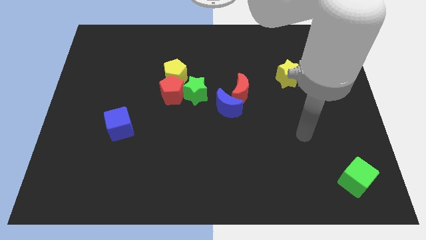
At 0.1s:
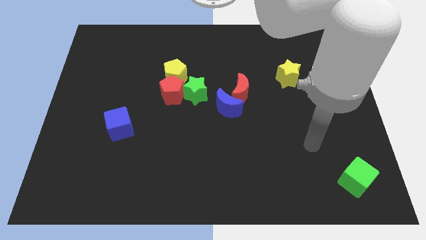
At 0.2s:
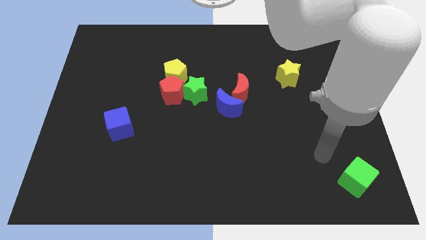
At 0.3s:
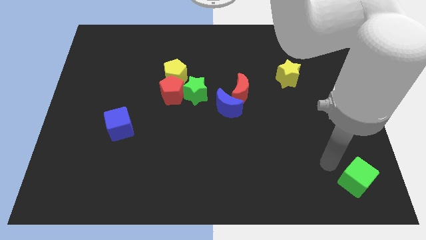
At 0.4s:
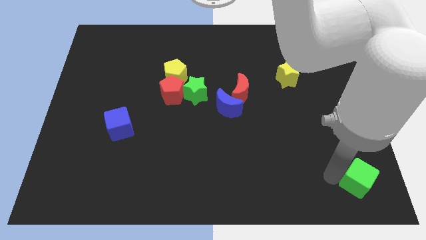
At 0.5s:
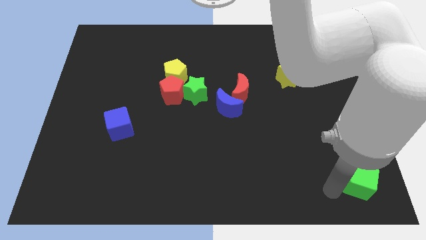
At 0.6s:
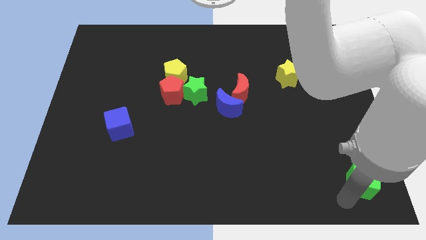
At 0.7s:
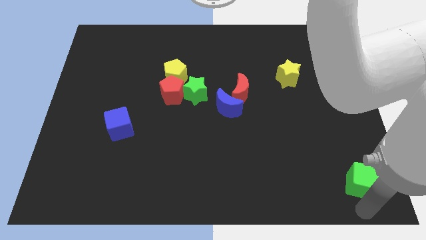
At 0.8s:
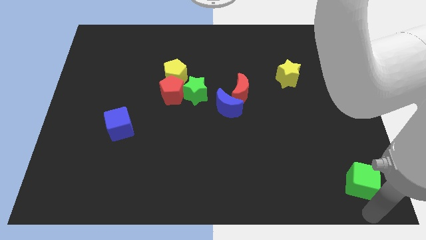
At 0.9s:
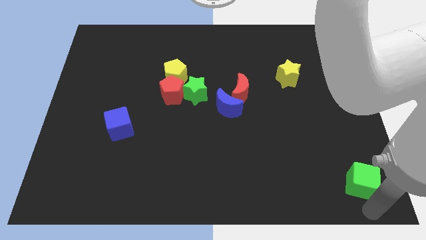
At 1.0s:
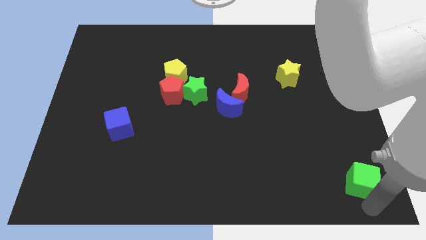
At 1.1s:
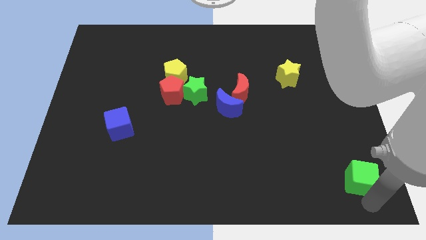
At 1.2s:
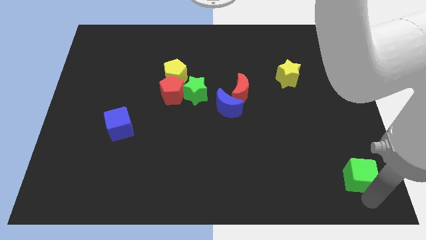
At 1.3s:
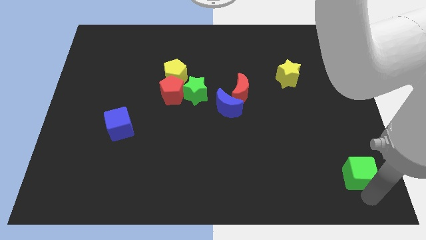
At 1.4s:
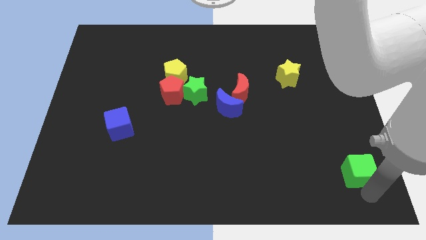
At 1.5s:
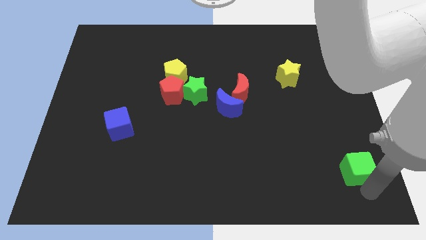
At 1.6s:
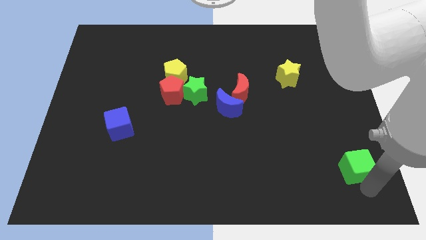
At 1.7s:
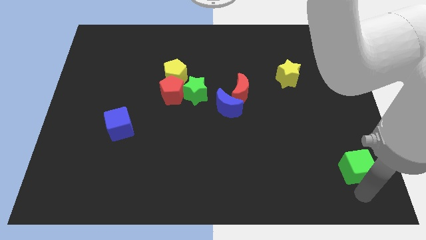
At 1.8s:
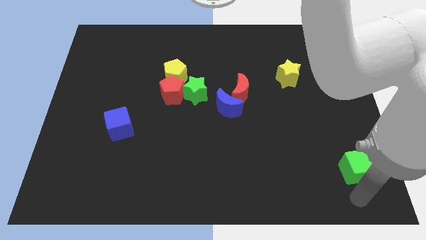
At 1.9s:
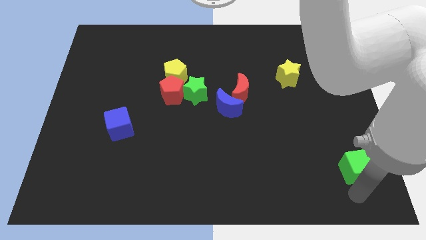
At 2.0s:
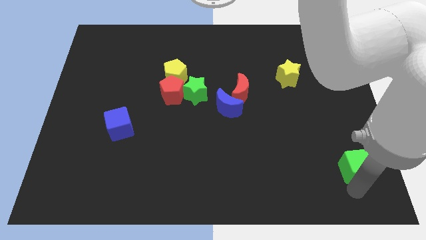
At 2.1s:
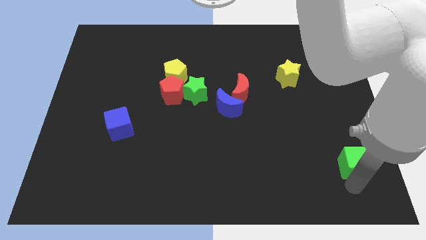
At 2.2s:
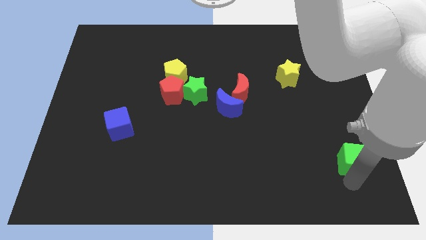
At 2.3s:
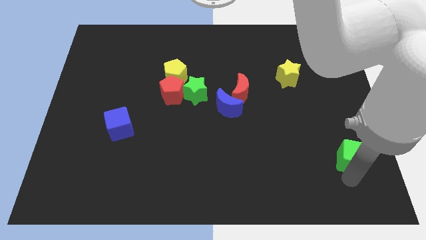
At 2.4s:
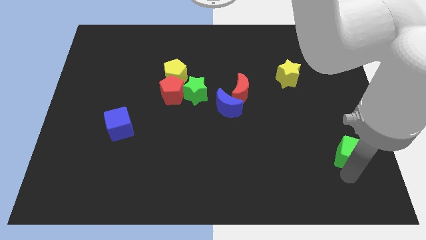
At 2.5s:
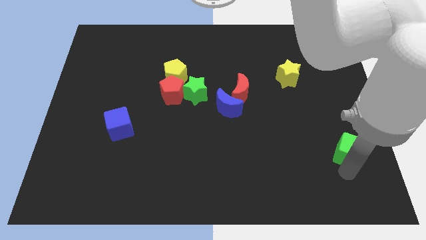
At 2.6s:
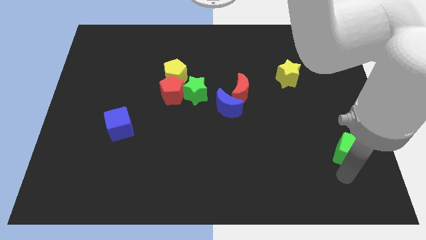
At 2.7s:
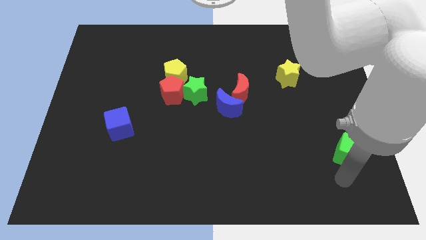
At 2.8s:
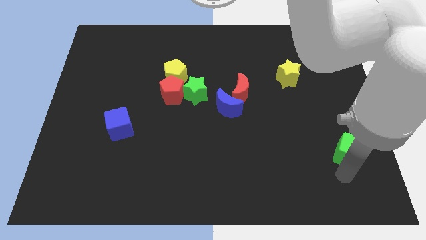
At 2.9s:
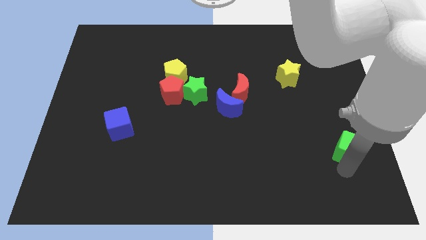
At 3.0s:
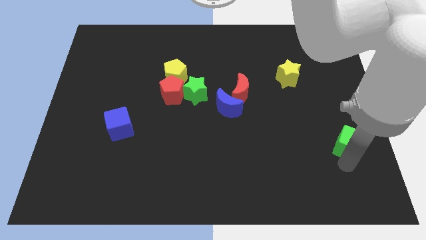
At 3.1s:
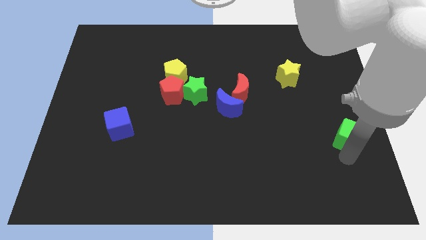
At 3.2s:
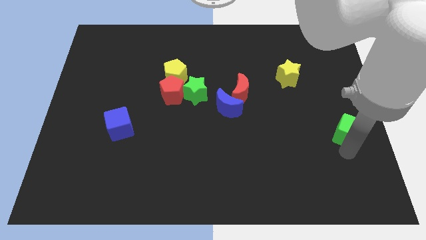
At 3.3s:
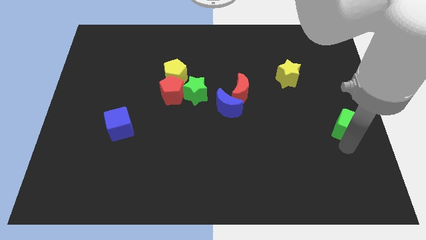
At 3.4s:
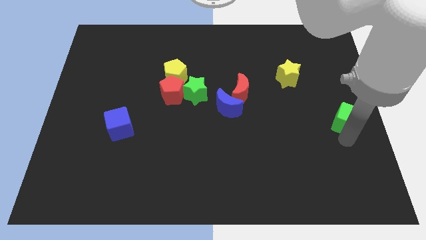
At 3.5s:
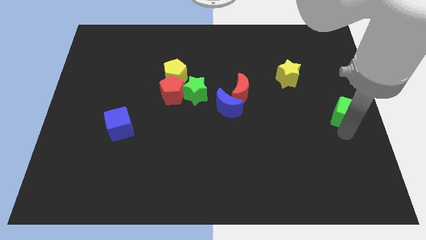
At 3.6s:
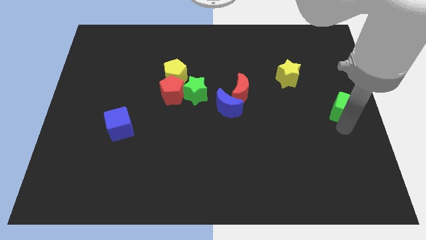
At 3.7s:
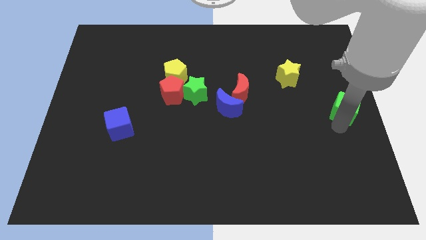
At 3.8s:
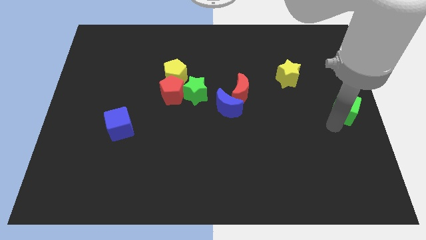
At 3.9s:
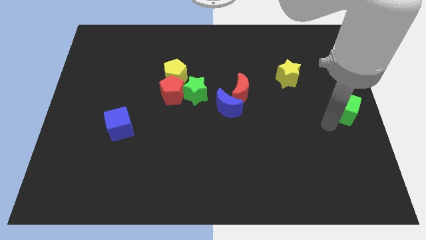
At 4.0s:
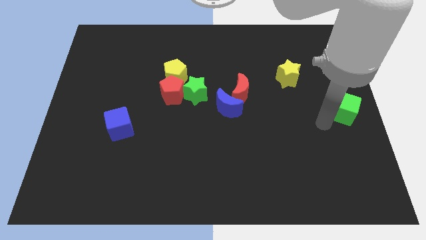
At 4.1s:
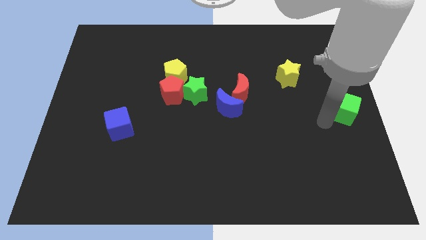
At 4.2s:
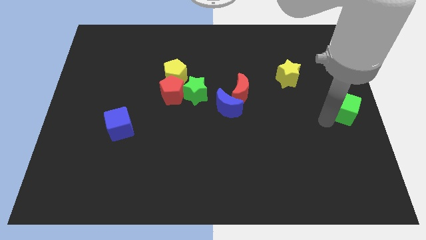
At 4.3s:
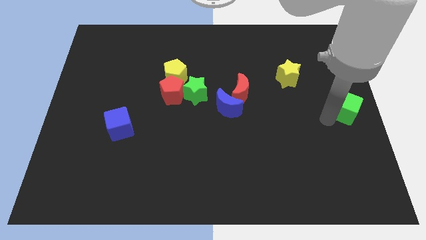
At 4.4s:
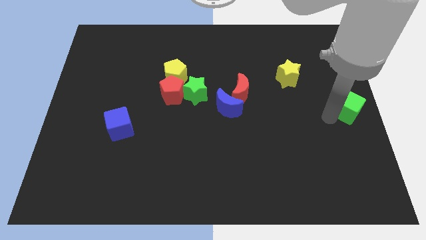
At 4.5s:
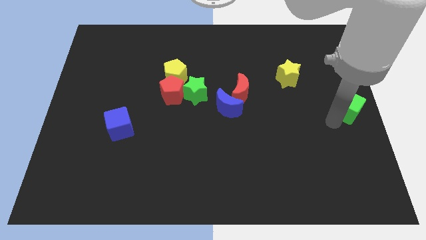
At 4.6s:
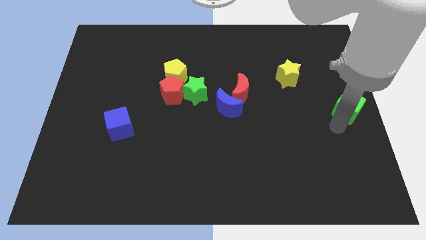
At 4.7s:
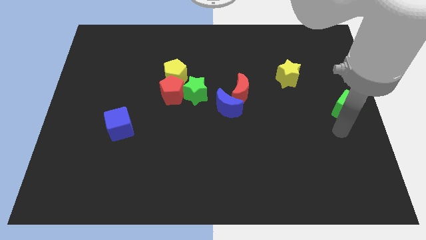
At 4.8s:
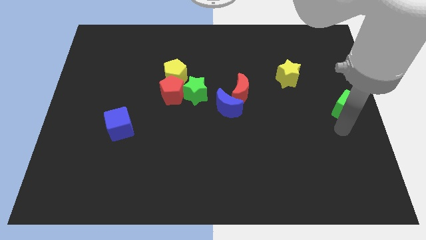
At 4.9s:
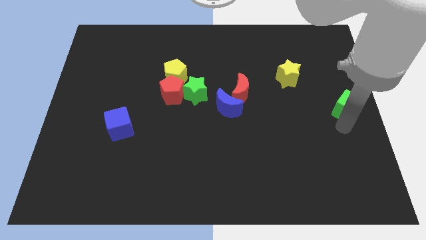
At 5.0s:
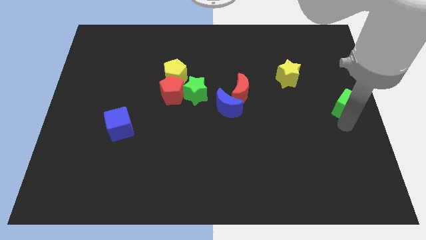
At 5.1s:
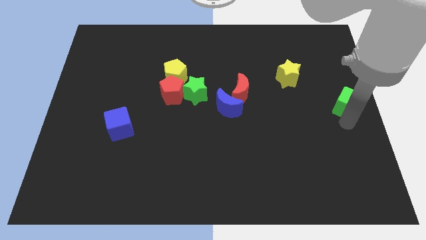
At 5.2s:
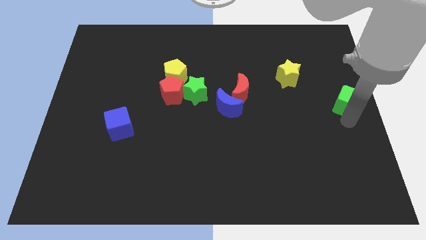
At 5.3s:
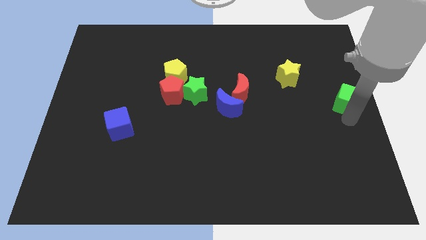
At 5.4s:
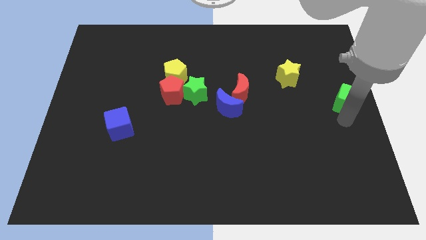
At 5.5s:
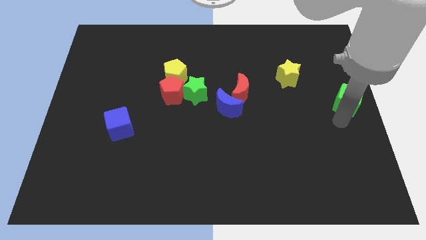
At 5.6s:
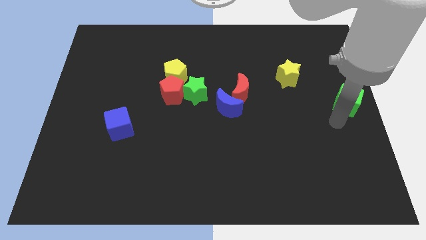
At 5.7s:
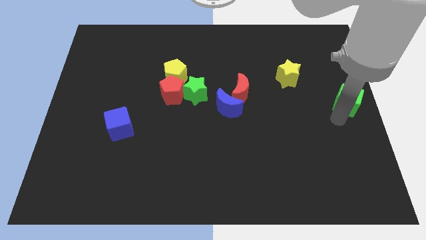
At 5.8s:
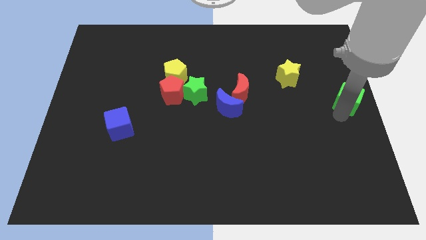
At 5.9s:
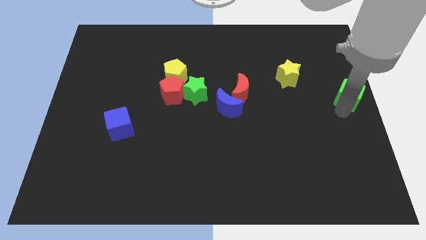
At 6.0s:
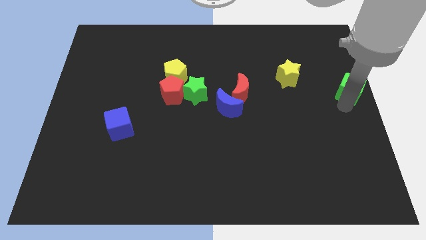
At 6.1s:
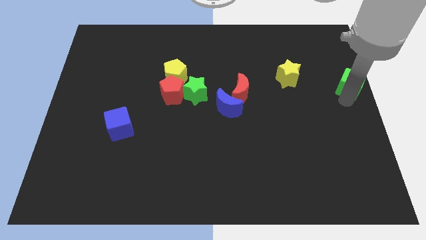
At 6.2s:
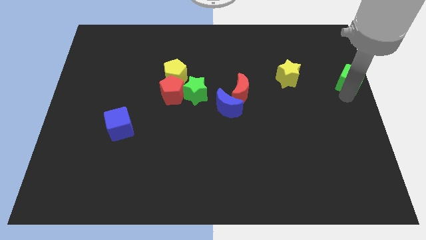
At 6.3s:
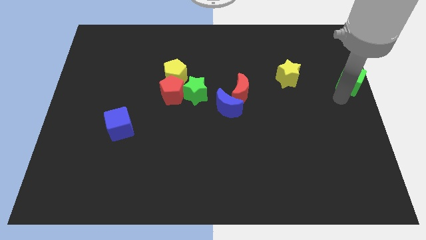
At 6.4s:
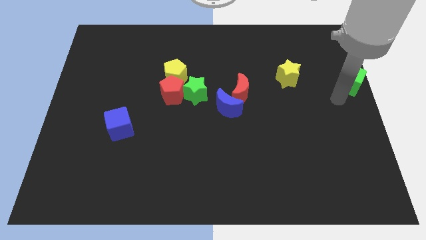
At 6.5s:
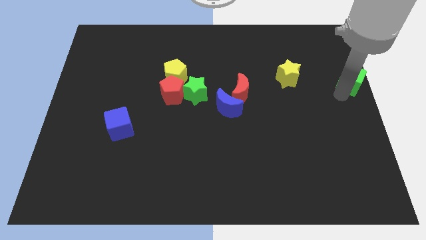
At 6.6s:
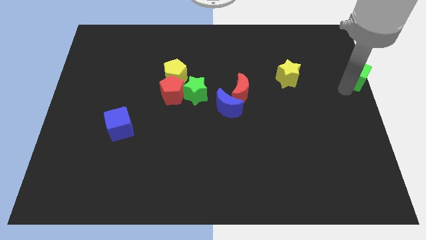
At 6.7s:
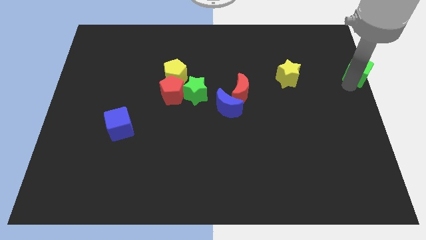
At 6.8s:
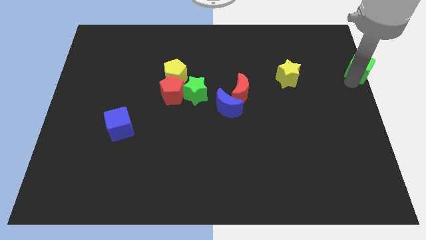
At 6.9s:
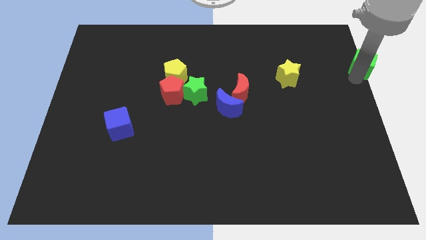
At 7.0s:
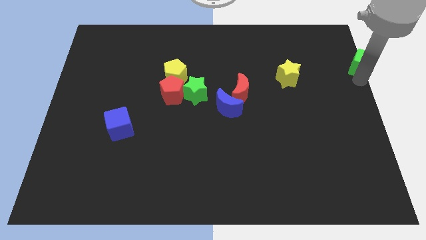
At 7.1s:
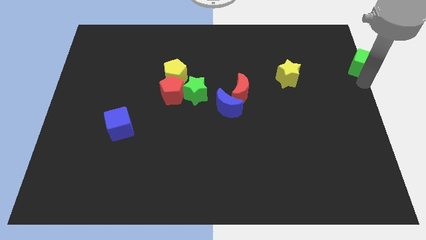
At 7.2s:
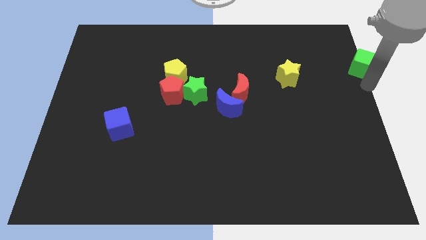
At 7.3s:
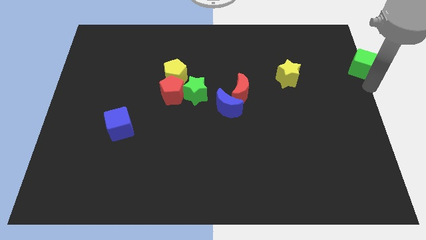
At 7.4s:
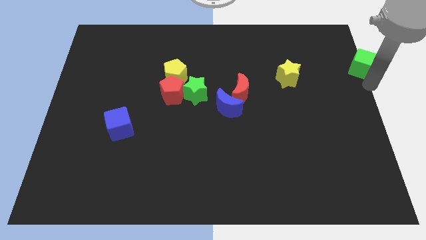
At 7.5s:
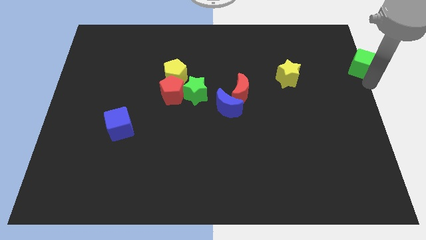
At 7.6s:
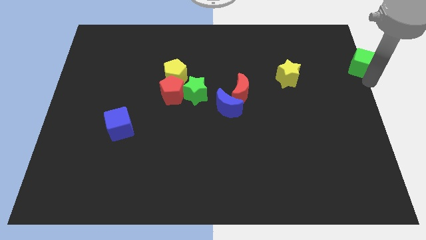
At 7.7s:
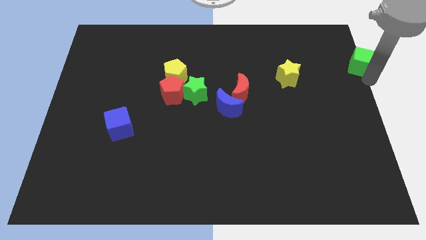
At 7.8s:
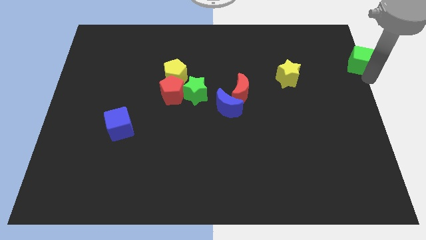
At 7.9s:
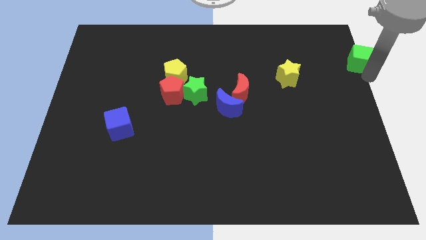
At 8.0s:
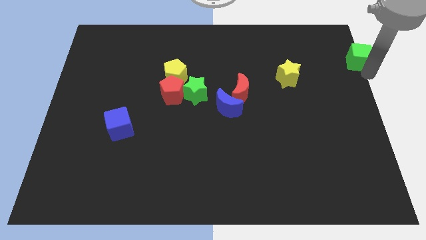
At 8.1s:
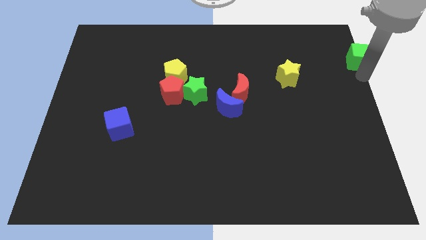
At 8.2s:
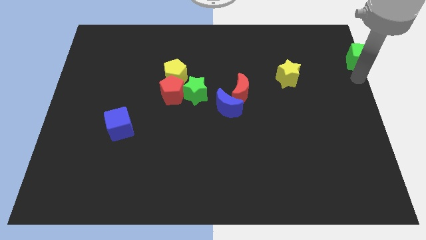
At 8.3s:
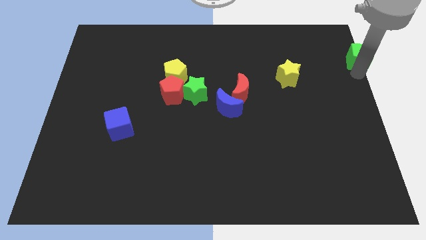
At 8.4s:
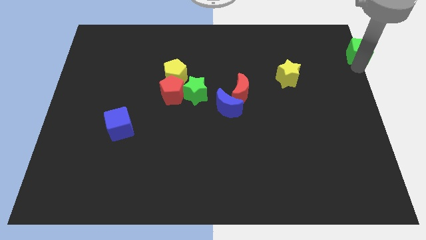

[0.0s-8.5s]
slide the green cube to the top right
